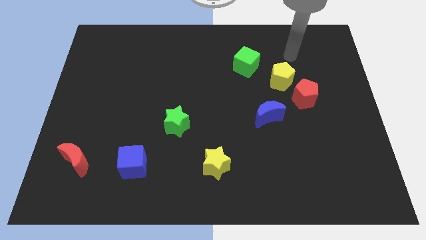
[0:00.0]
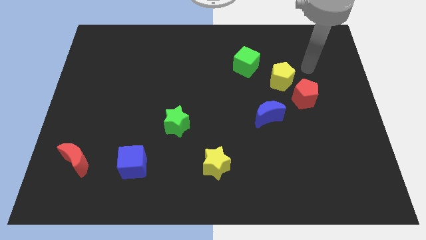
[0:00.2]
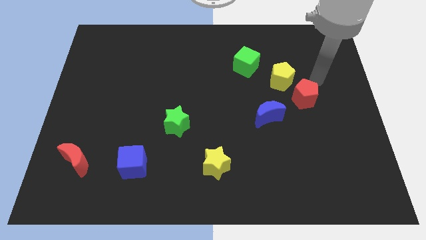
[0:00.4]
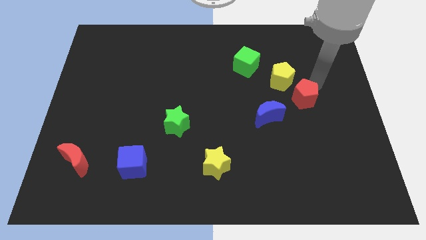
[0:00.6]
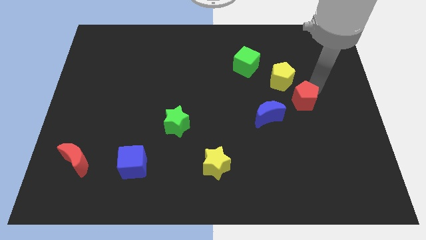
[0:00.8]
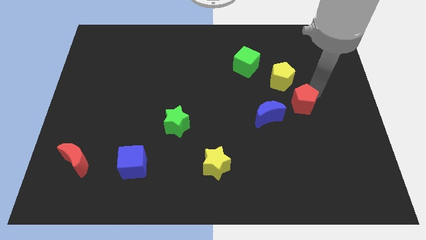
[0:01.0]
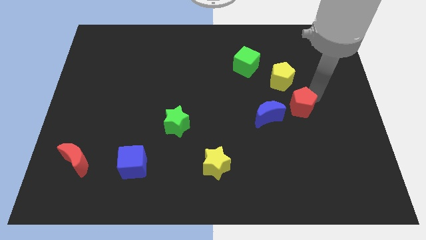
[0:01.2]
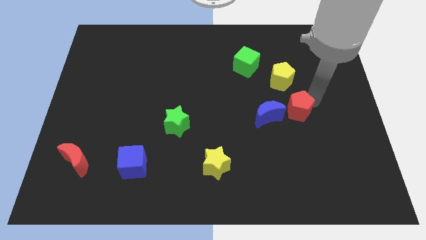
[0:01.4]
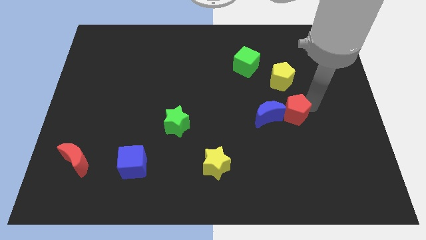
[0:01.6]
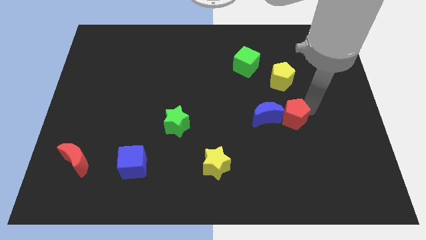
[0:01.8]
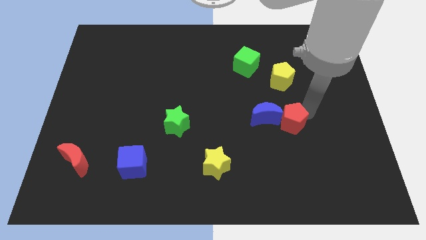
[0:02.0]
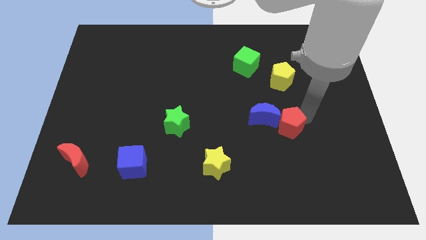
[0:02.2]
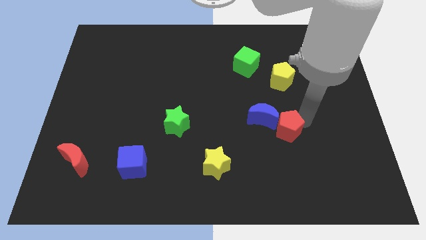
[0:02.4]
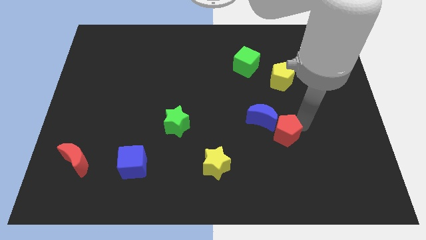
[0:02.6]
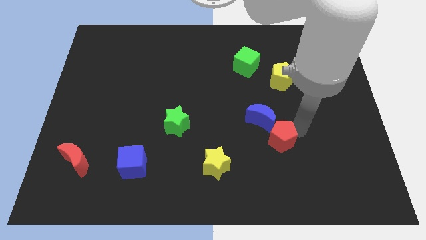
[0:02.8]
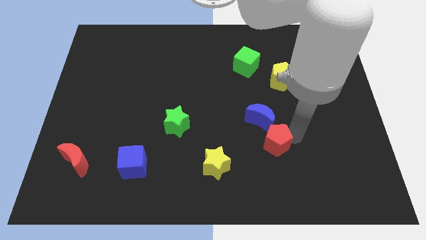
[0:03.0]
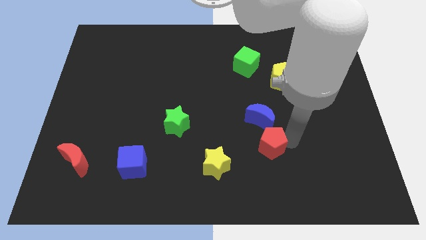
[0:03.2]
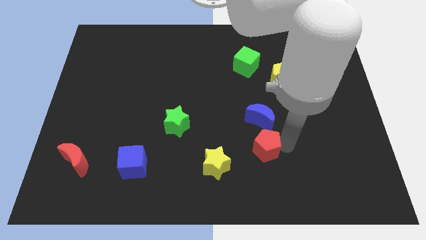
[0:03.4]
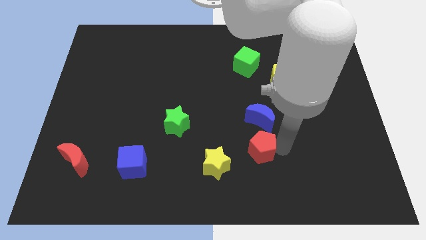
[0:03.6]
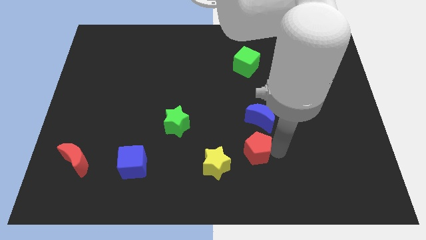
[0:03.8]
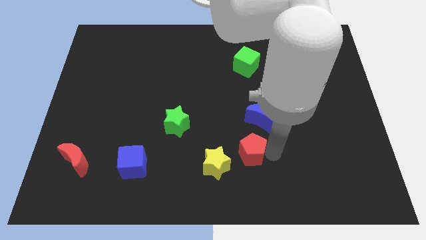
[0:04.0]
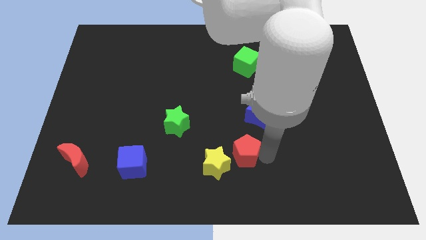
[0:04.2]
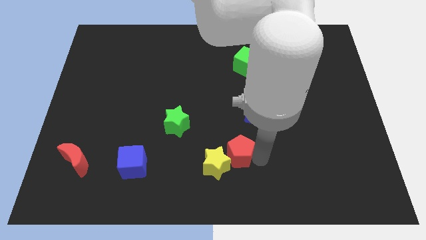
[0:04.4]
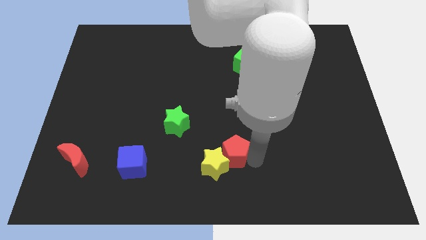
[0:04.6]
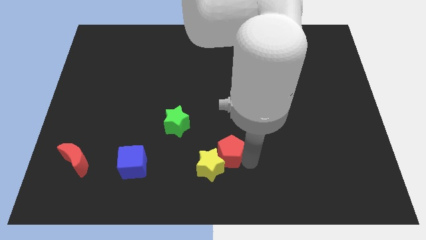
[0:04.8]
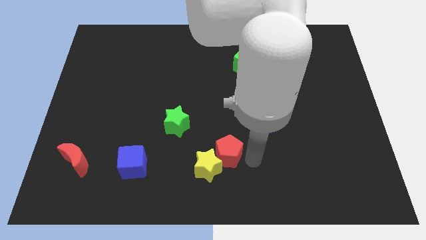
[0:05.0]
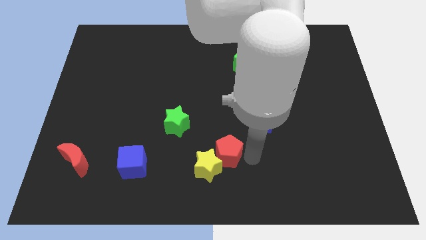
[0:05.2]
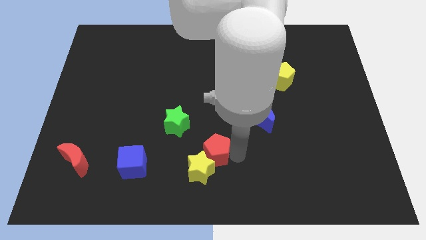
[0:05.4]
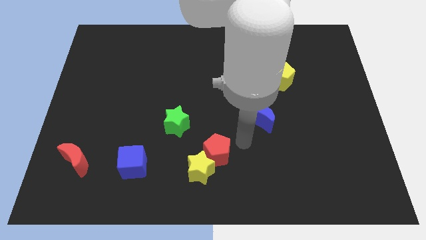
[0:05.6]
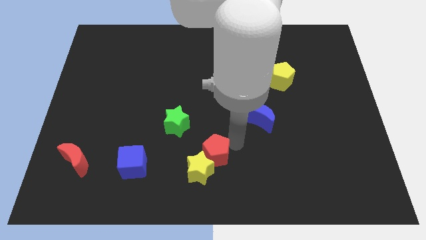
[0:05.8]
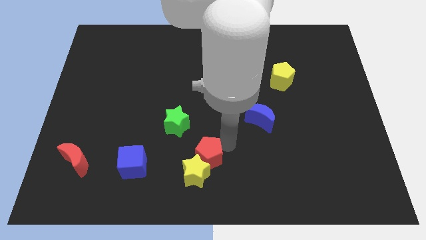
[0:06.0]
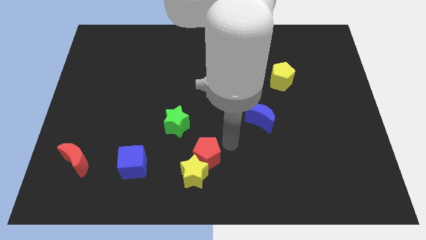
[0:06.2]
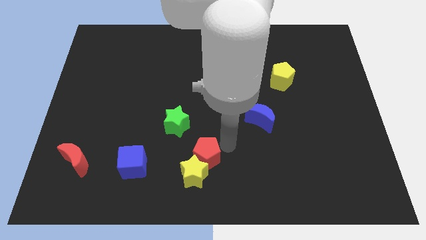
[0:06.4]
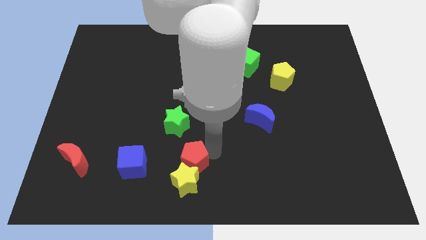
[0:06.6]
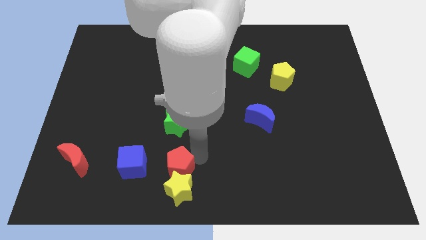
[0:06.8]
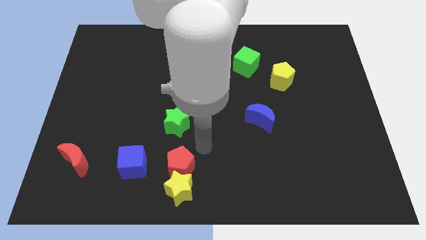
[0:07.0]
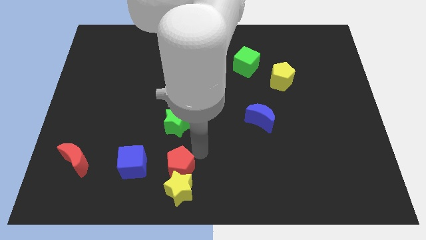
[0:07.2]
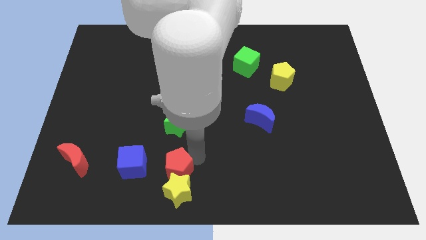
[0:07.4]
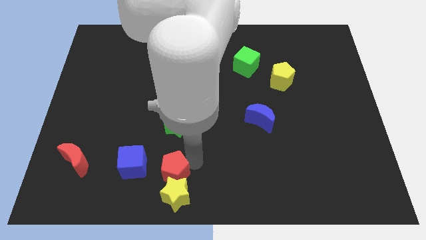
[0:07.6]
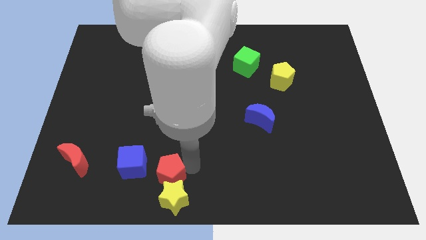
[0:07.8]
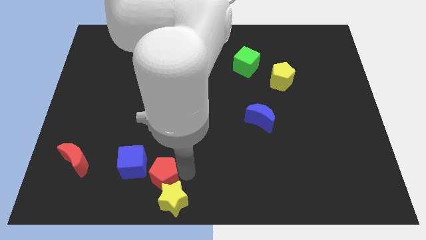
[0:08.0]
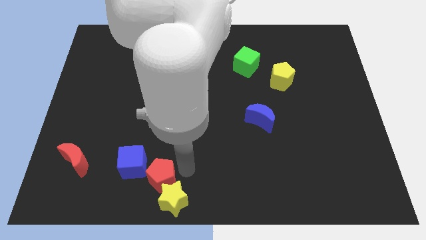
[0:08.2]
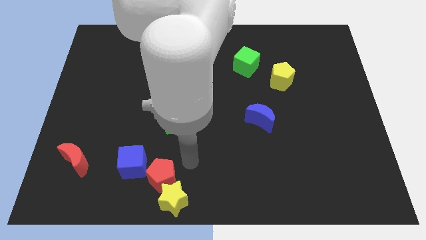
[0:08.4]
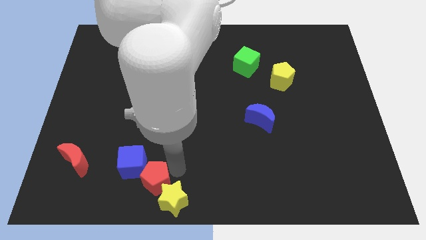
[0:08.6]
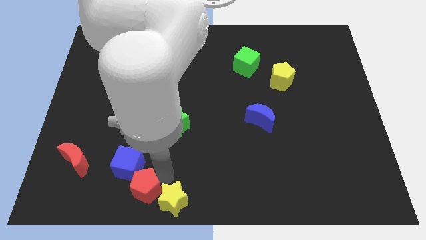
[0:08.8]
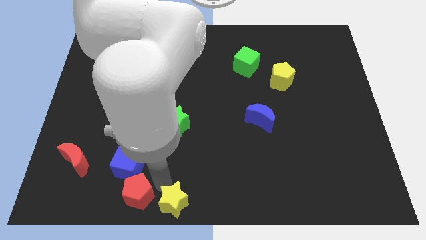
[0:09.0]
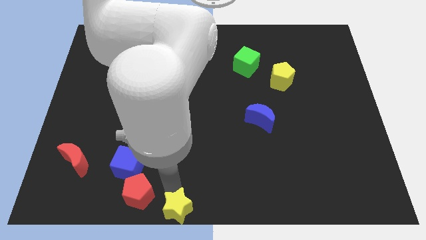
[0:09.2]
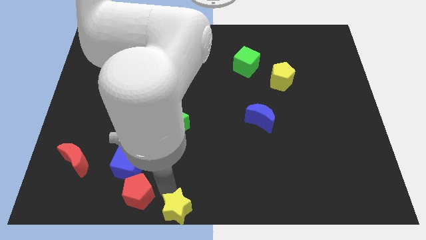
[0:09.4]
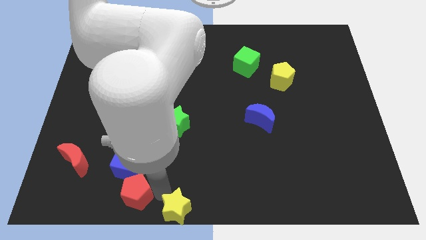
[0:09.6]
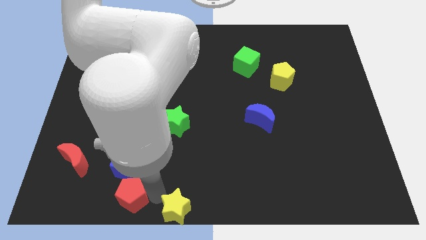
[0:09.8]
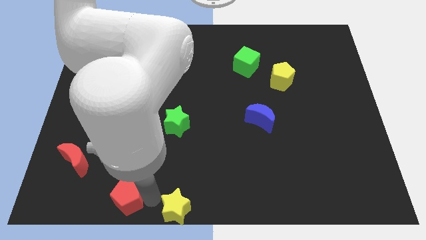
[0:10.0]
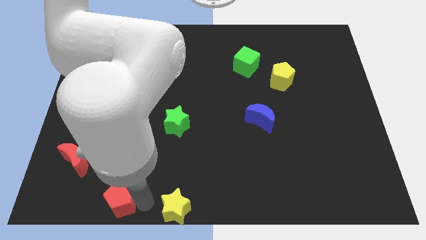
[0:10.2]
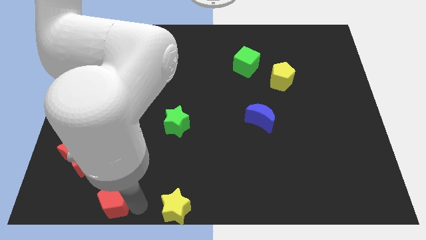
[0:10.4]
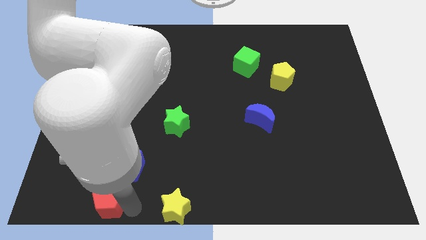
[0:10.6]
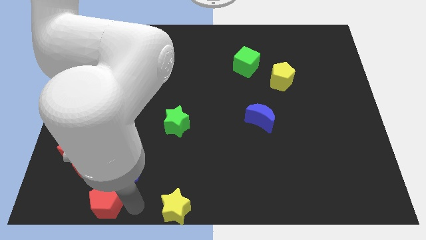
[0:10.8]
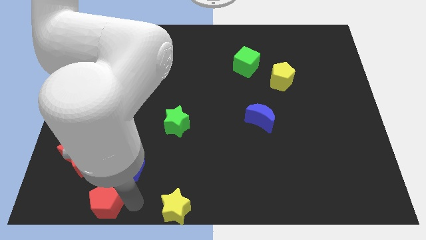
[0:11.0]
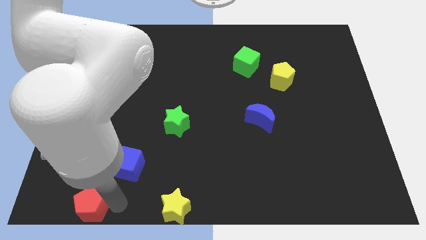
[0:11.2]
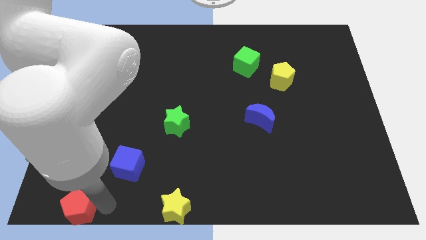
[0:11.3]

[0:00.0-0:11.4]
put the red pentagon to the bottom left corner

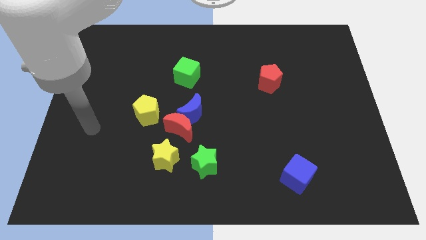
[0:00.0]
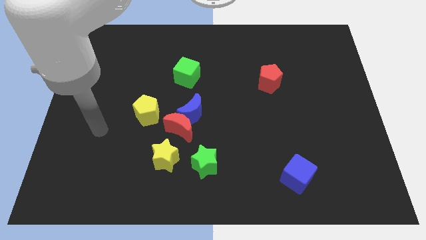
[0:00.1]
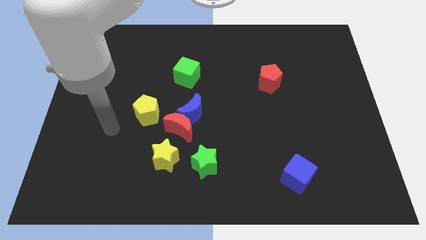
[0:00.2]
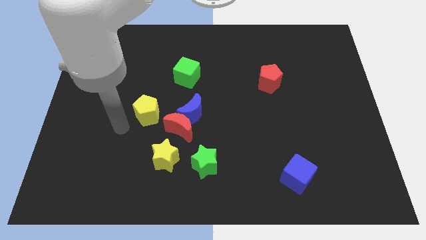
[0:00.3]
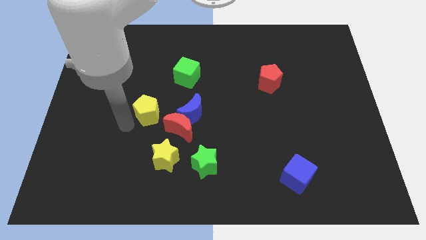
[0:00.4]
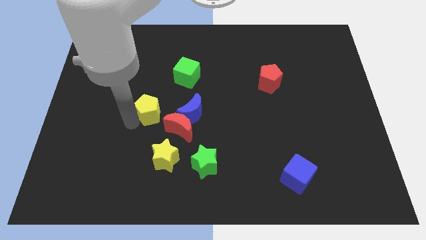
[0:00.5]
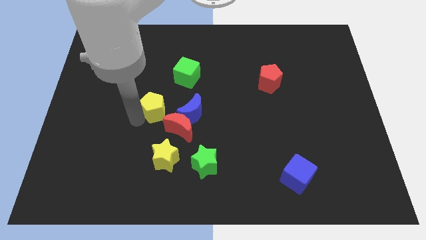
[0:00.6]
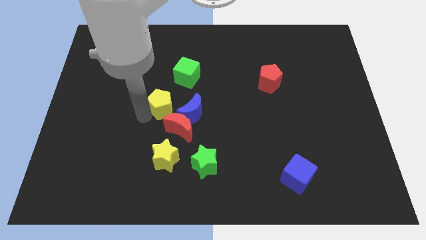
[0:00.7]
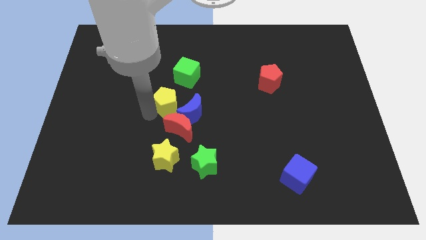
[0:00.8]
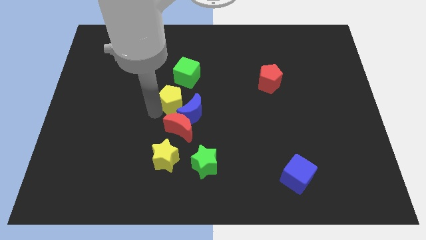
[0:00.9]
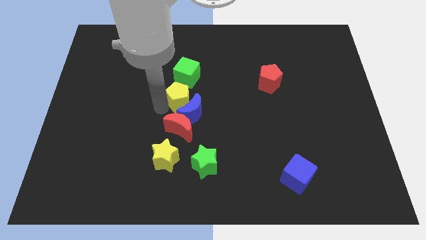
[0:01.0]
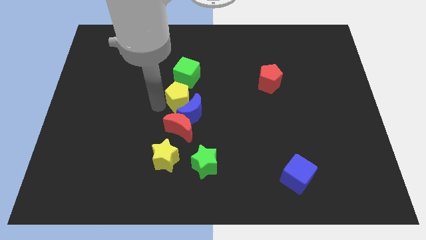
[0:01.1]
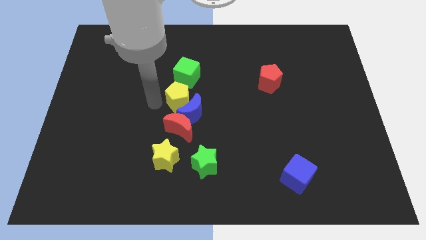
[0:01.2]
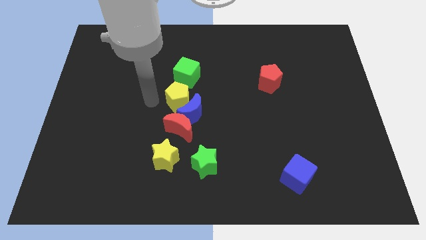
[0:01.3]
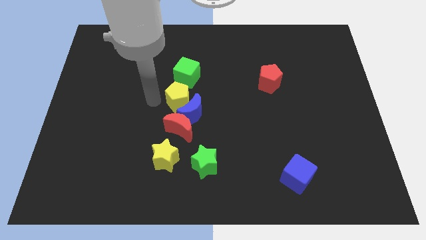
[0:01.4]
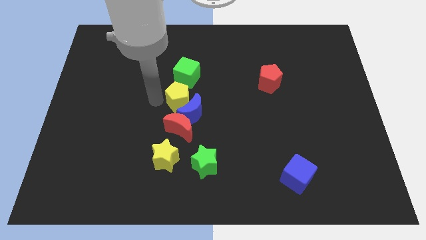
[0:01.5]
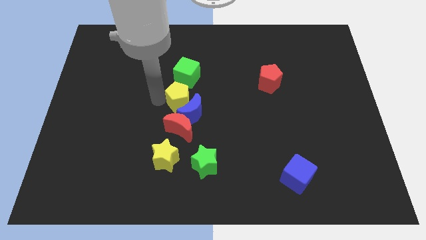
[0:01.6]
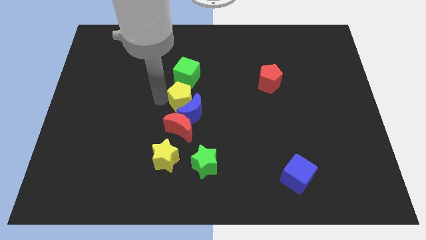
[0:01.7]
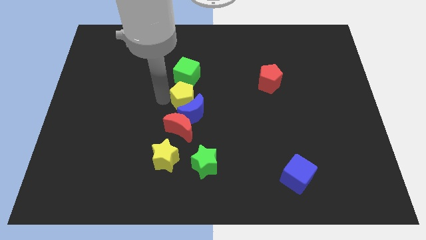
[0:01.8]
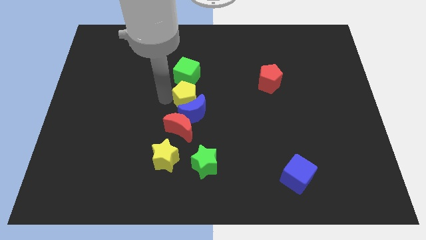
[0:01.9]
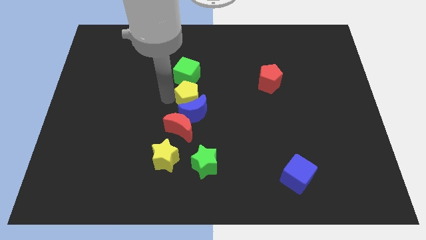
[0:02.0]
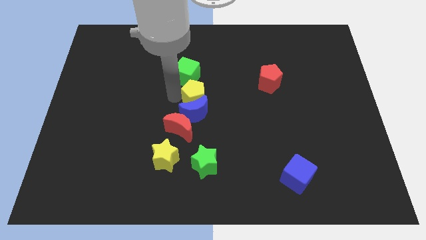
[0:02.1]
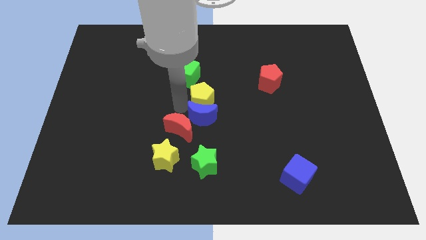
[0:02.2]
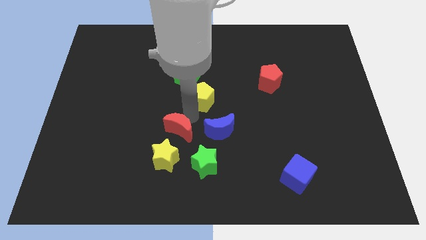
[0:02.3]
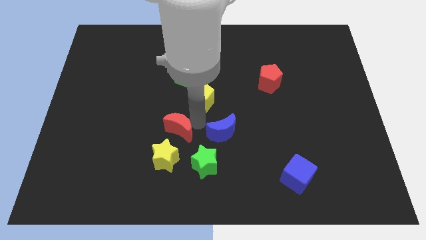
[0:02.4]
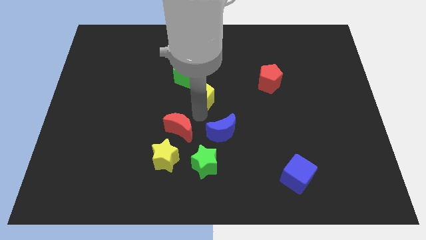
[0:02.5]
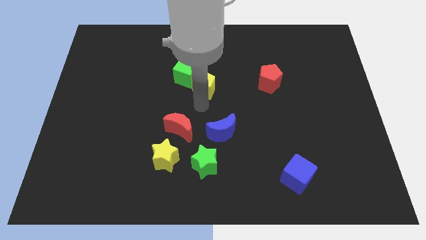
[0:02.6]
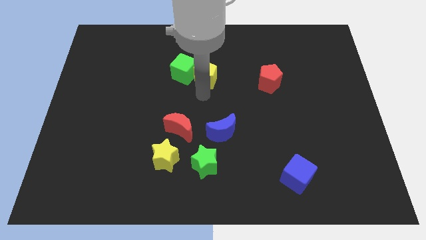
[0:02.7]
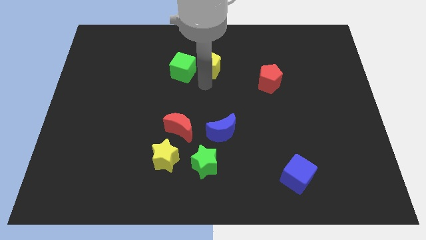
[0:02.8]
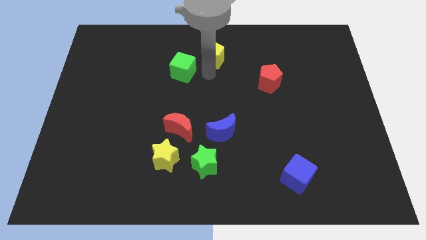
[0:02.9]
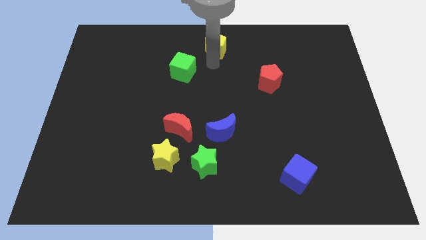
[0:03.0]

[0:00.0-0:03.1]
push the yellow pentagon to the top side
